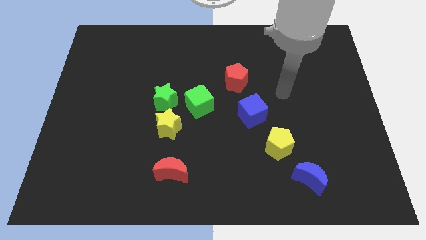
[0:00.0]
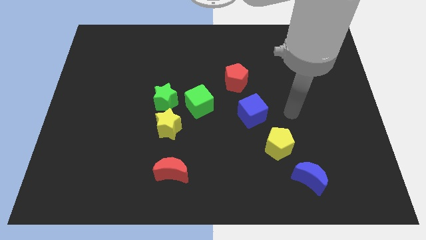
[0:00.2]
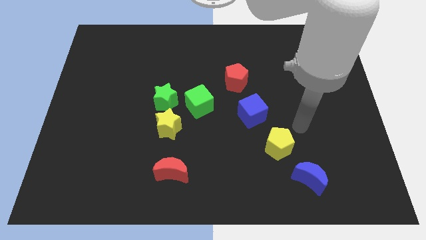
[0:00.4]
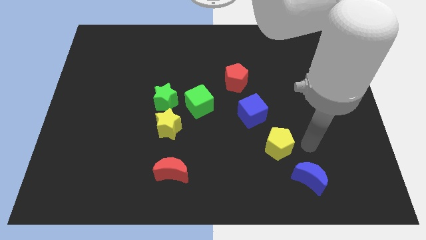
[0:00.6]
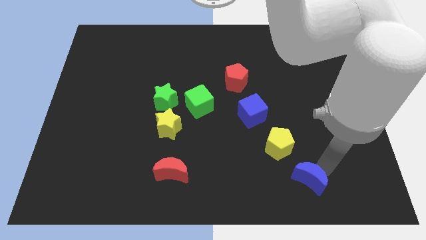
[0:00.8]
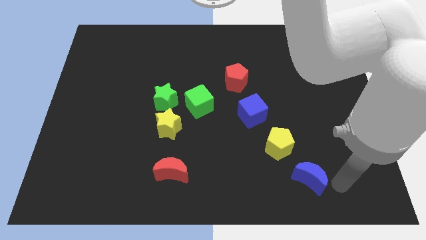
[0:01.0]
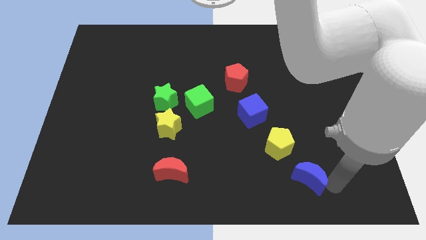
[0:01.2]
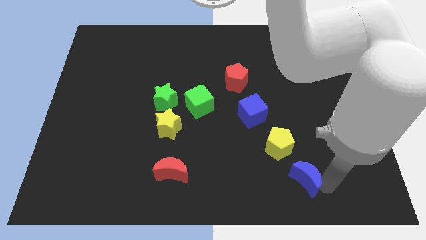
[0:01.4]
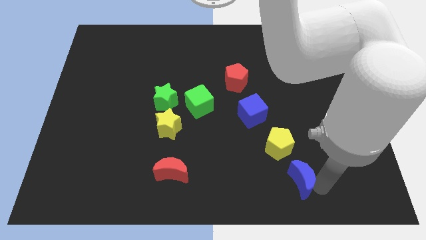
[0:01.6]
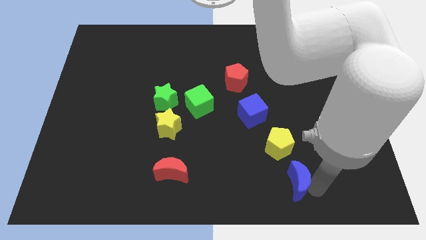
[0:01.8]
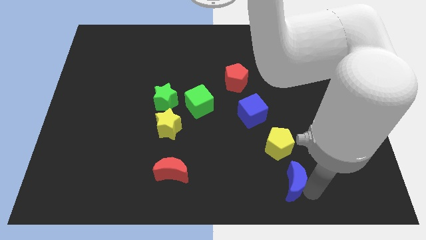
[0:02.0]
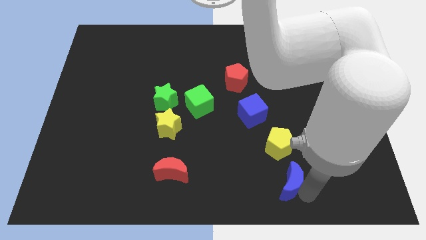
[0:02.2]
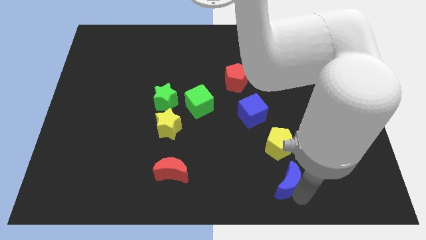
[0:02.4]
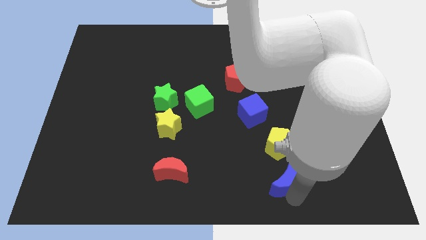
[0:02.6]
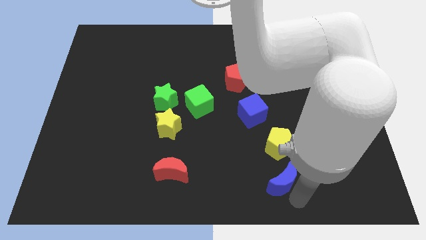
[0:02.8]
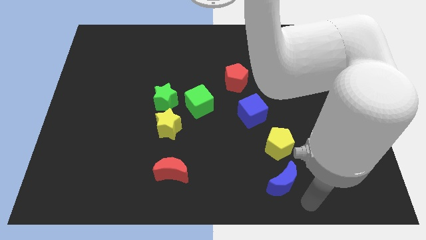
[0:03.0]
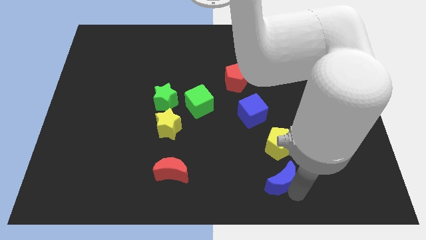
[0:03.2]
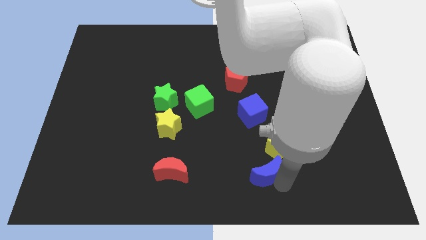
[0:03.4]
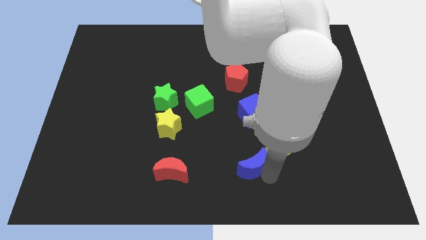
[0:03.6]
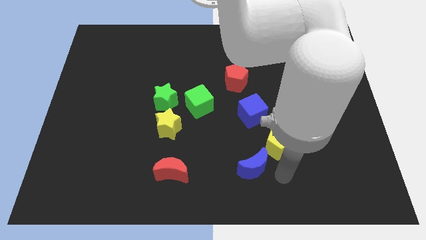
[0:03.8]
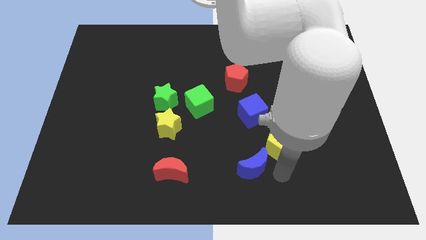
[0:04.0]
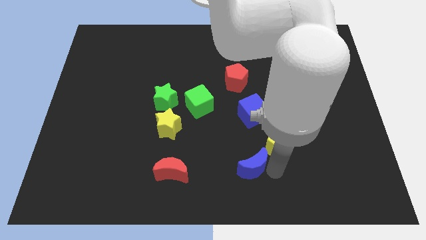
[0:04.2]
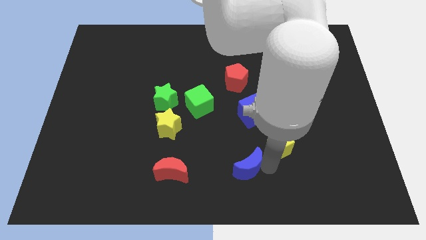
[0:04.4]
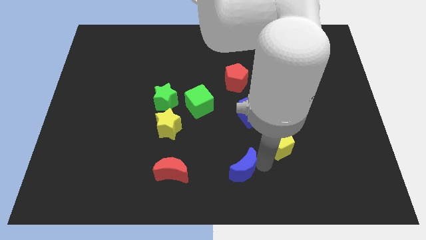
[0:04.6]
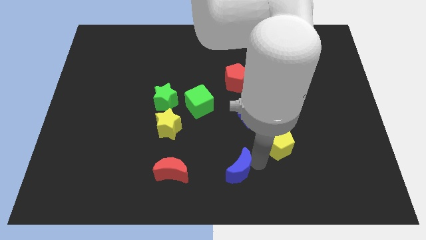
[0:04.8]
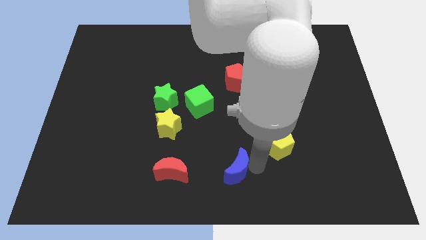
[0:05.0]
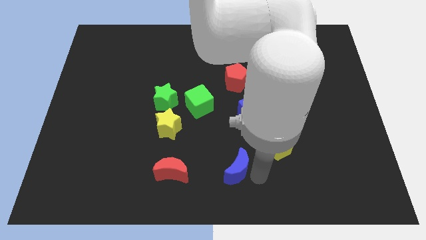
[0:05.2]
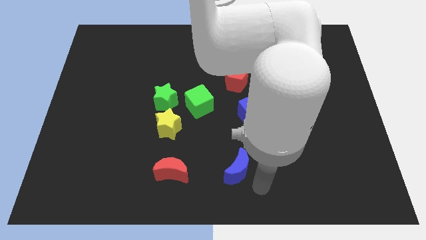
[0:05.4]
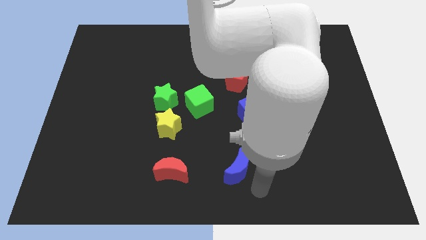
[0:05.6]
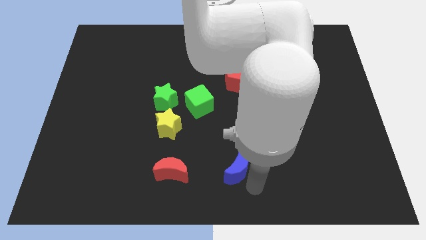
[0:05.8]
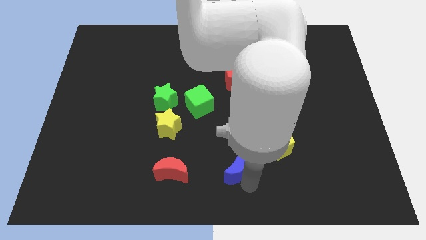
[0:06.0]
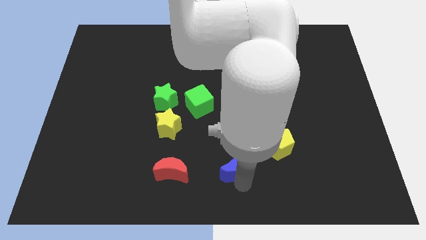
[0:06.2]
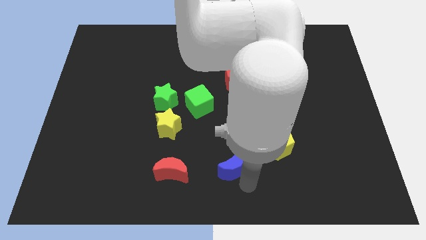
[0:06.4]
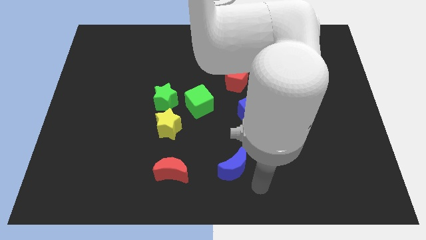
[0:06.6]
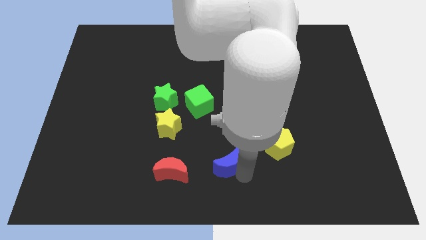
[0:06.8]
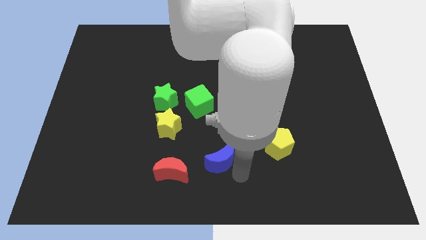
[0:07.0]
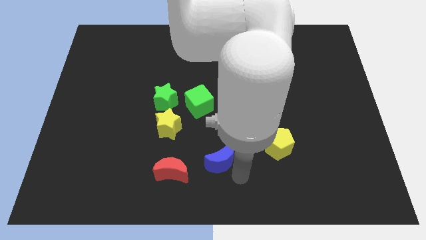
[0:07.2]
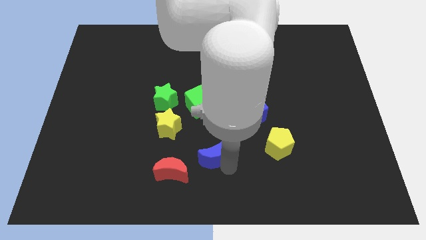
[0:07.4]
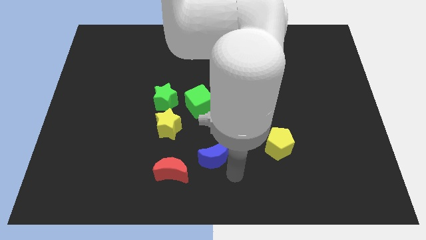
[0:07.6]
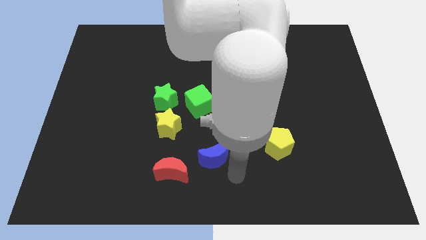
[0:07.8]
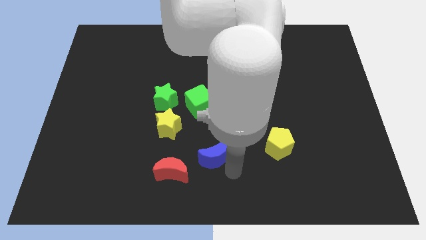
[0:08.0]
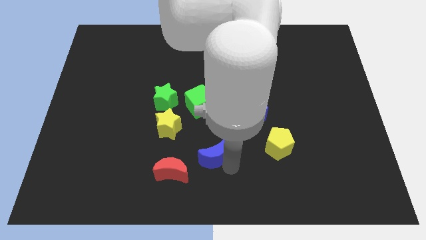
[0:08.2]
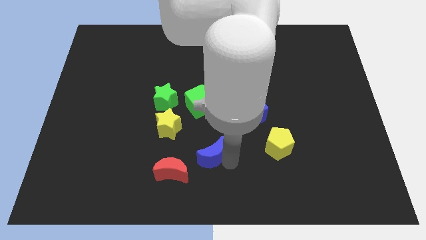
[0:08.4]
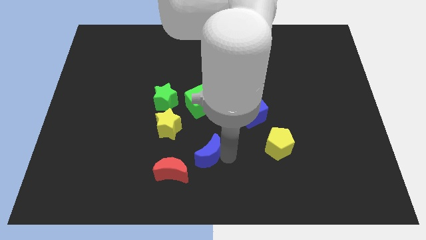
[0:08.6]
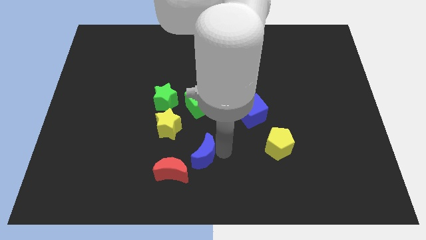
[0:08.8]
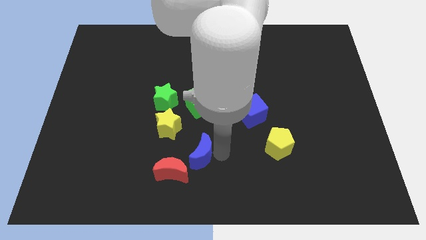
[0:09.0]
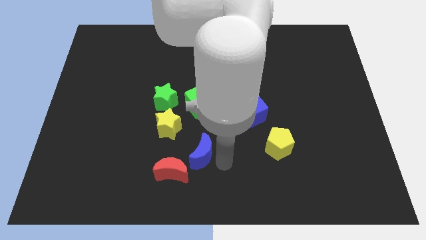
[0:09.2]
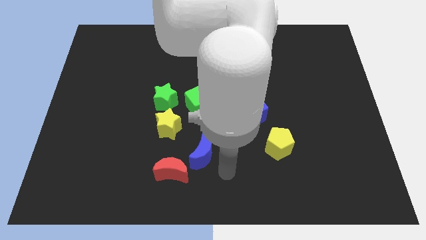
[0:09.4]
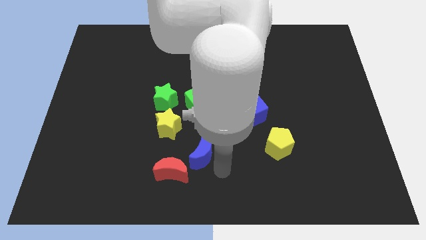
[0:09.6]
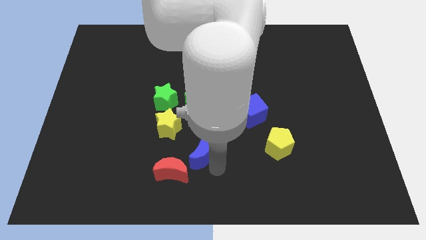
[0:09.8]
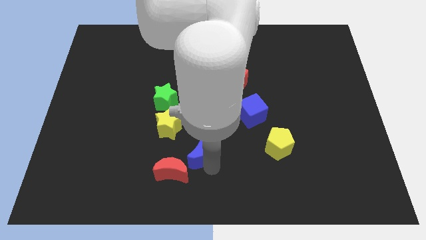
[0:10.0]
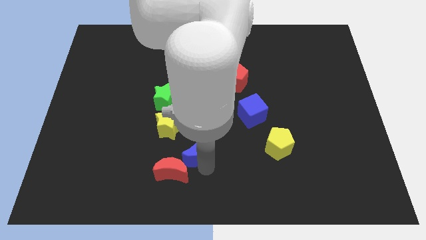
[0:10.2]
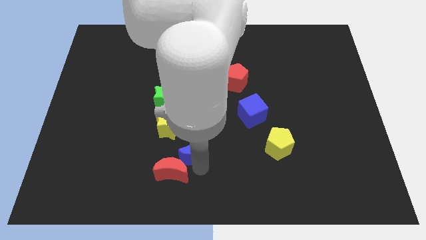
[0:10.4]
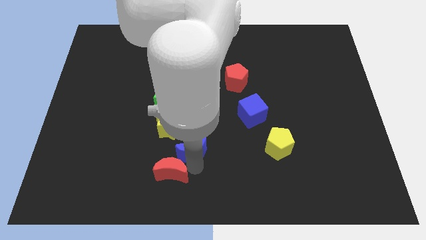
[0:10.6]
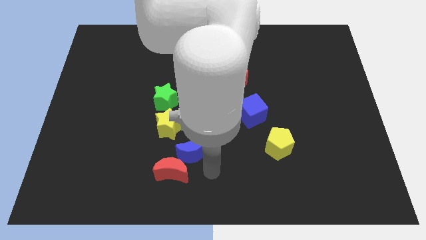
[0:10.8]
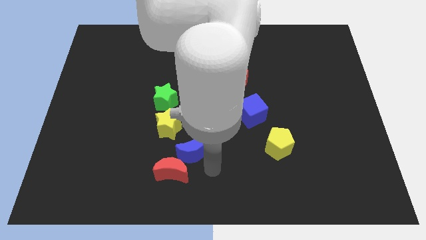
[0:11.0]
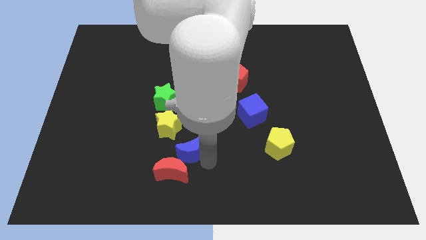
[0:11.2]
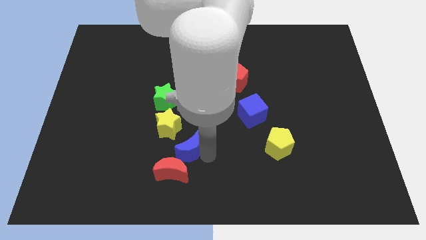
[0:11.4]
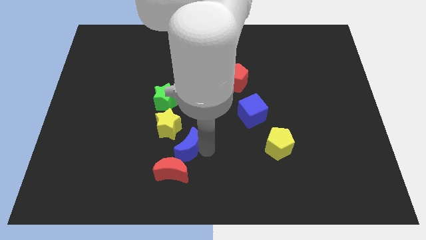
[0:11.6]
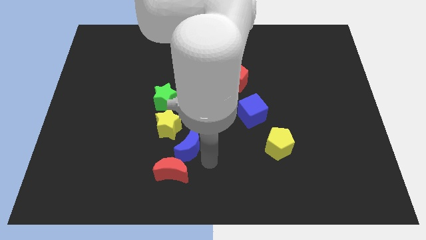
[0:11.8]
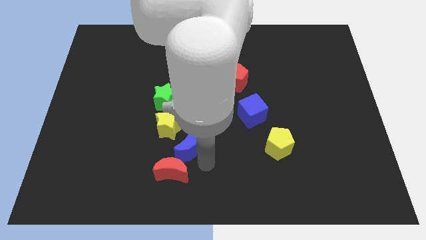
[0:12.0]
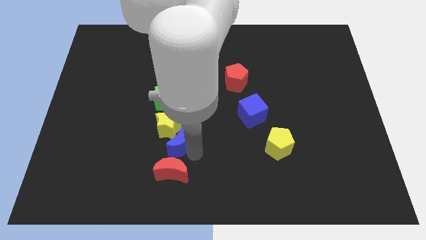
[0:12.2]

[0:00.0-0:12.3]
push the blue moon next to the yellow star

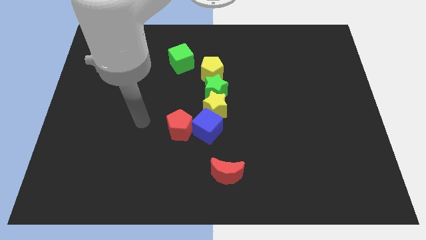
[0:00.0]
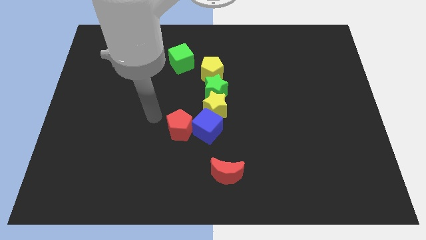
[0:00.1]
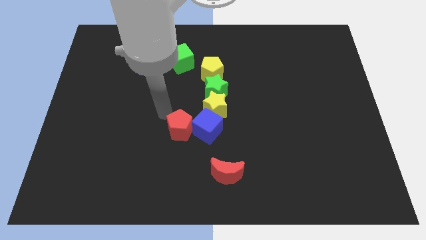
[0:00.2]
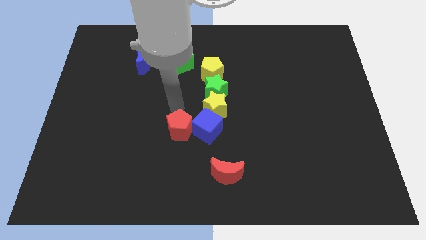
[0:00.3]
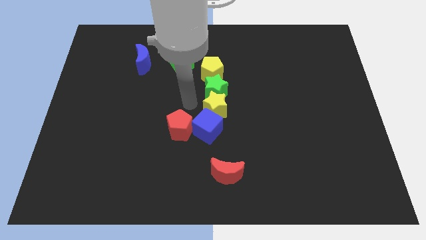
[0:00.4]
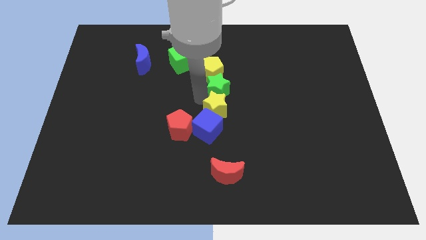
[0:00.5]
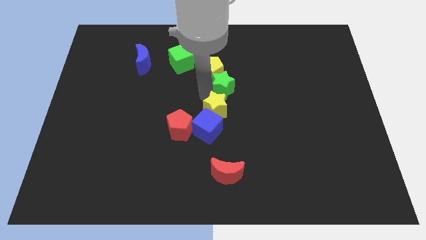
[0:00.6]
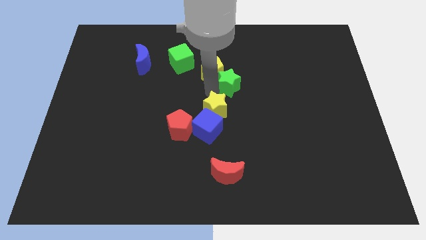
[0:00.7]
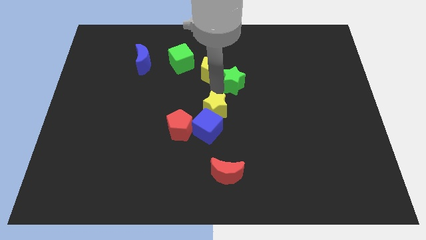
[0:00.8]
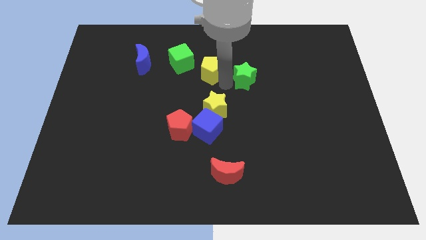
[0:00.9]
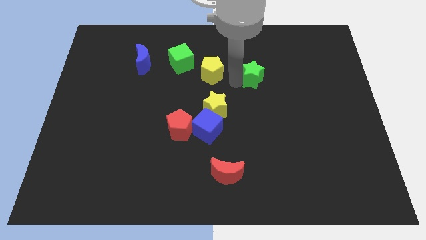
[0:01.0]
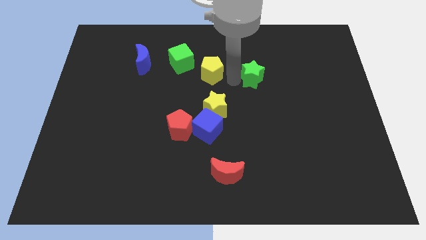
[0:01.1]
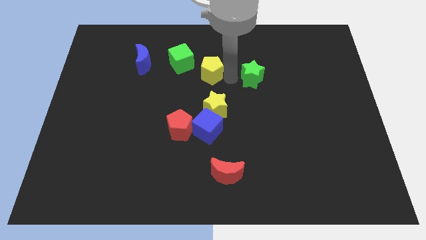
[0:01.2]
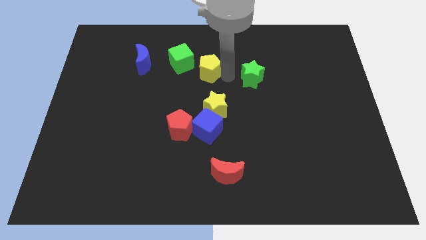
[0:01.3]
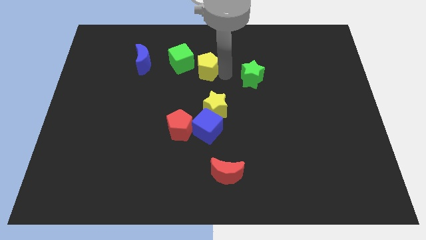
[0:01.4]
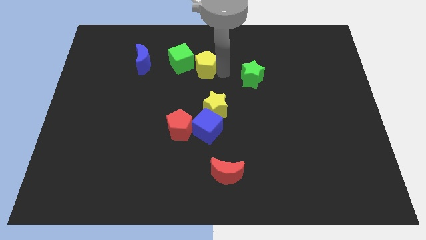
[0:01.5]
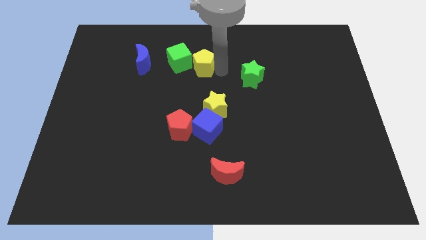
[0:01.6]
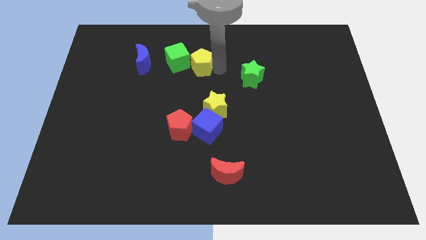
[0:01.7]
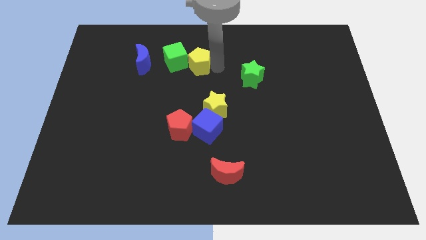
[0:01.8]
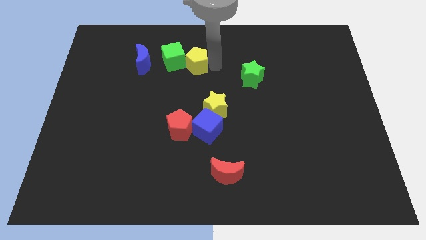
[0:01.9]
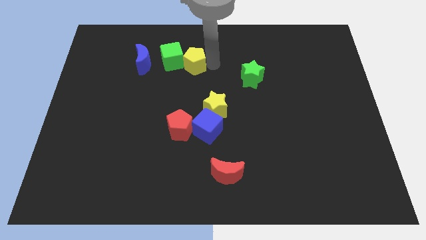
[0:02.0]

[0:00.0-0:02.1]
push the yellow pentagon next to the green cube
